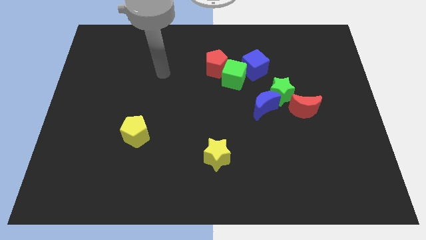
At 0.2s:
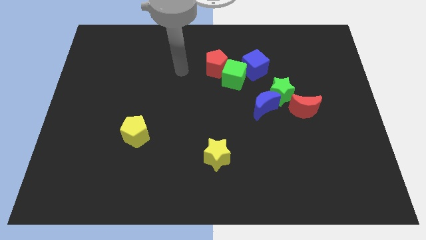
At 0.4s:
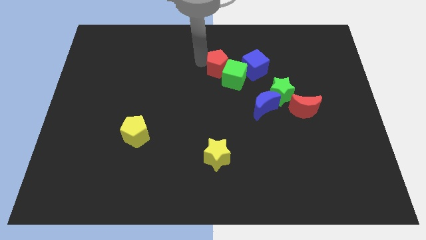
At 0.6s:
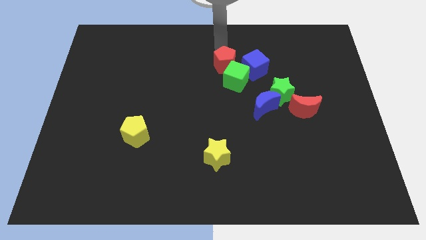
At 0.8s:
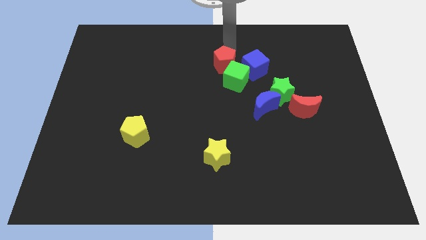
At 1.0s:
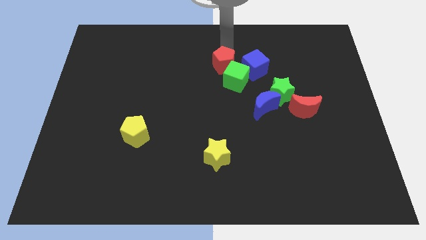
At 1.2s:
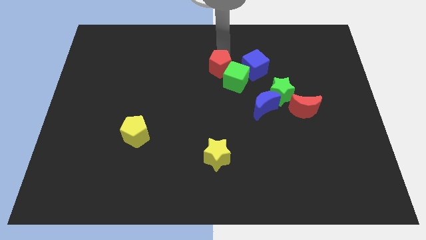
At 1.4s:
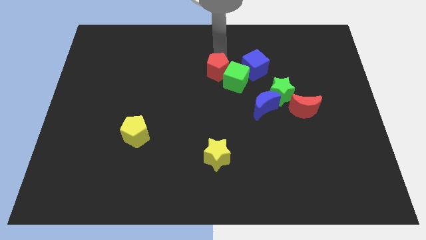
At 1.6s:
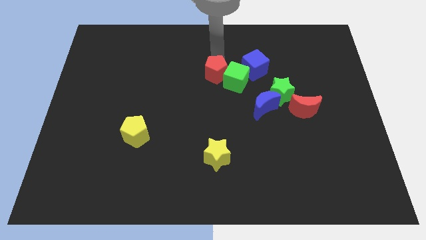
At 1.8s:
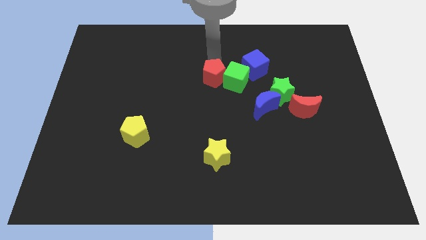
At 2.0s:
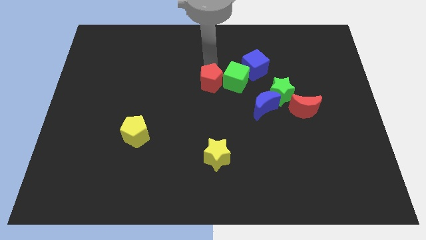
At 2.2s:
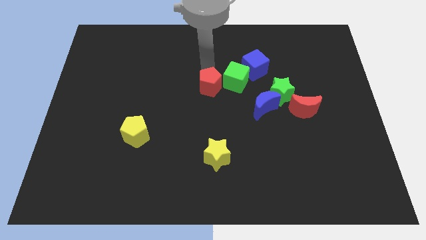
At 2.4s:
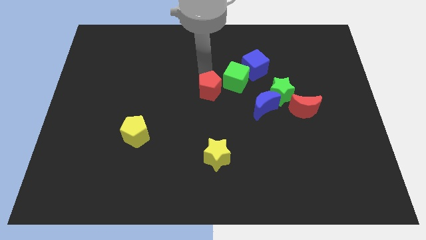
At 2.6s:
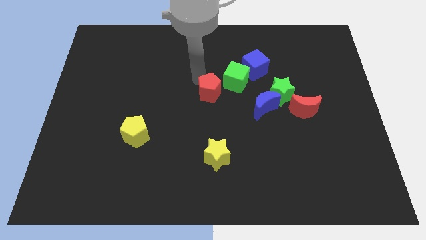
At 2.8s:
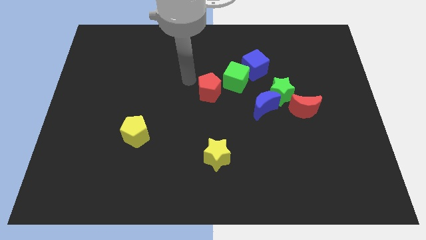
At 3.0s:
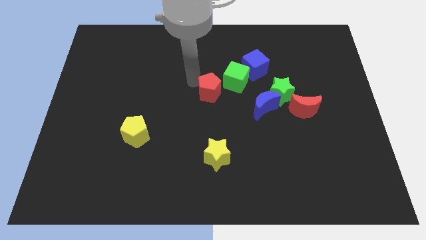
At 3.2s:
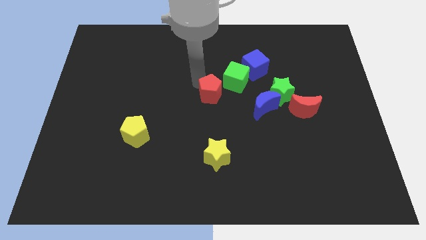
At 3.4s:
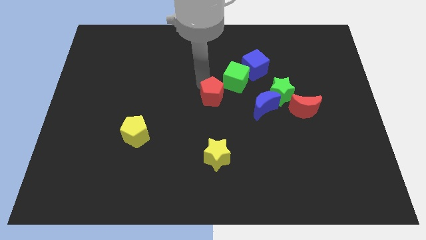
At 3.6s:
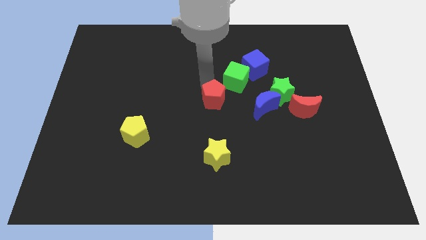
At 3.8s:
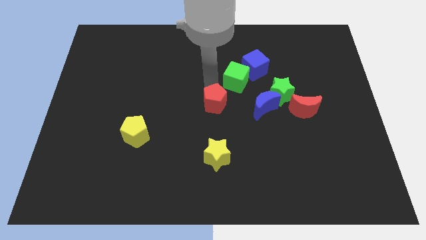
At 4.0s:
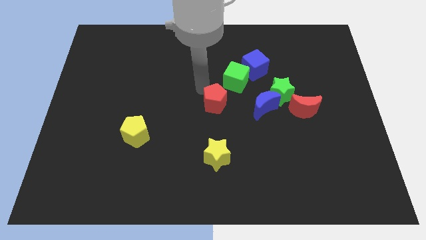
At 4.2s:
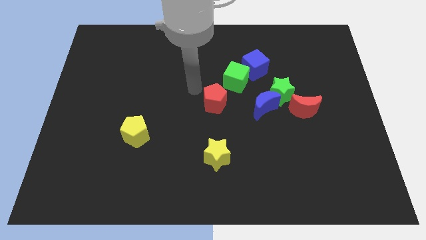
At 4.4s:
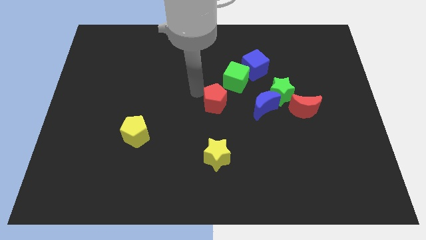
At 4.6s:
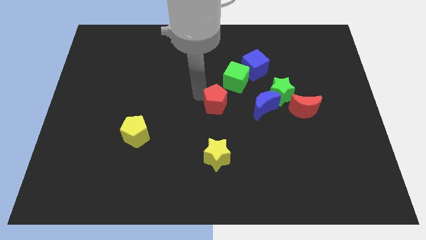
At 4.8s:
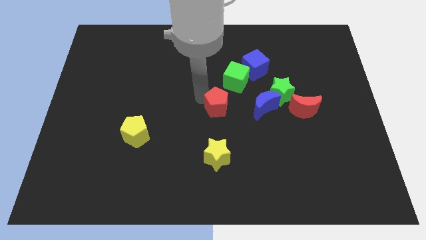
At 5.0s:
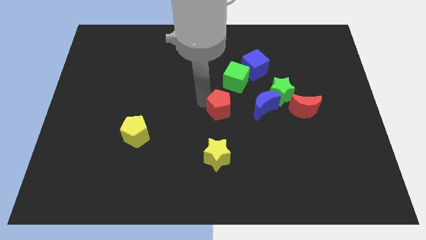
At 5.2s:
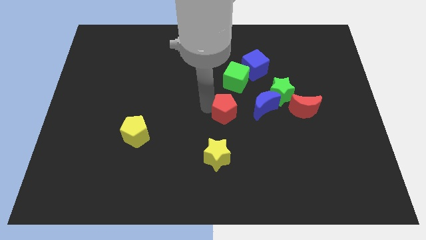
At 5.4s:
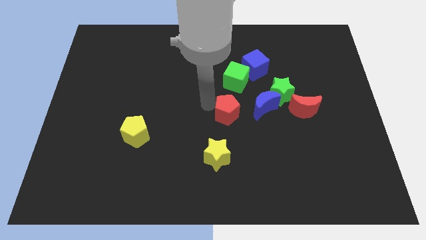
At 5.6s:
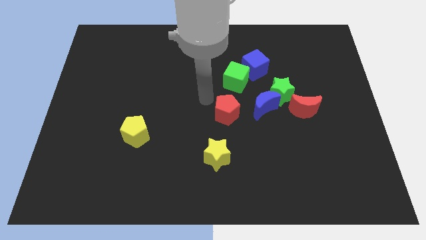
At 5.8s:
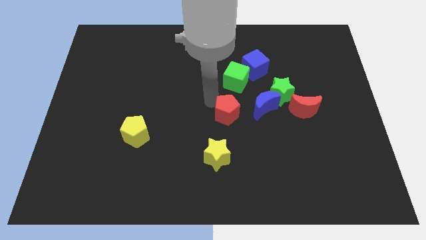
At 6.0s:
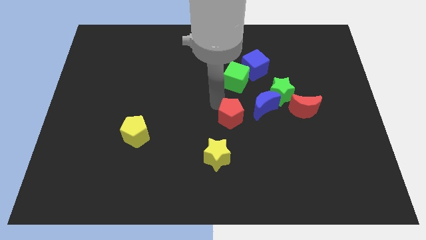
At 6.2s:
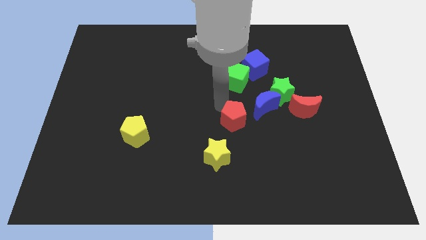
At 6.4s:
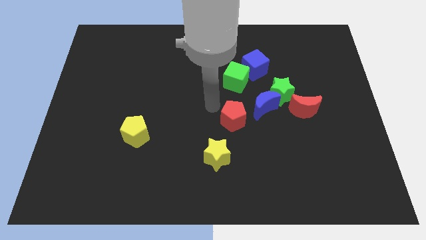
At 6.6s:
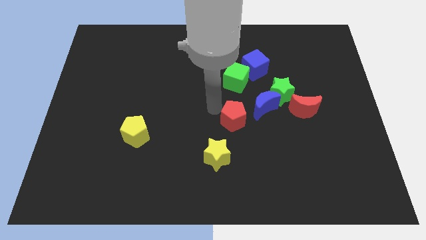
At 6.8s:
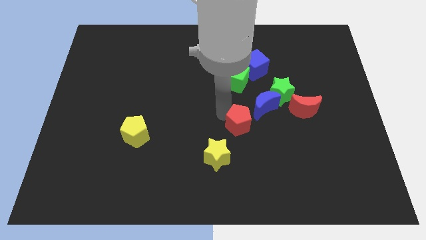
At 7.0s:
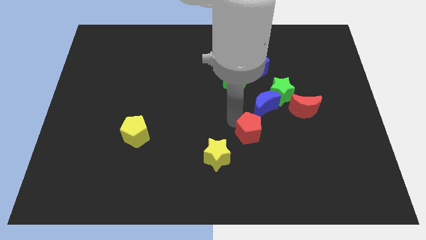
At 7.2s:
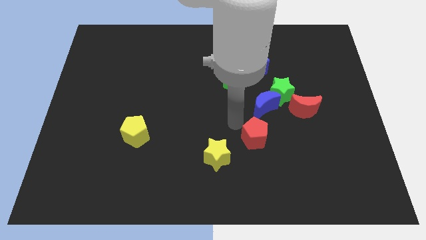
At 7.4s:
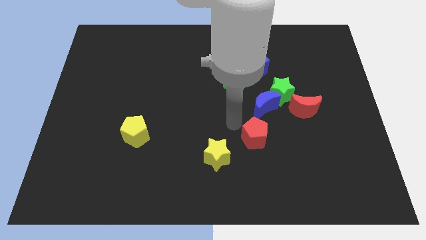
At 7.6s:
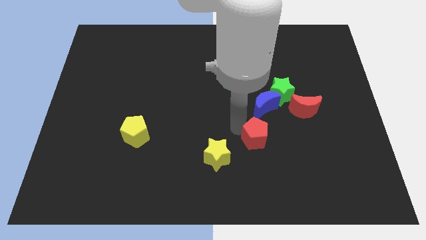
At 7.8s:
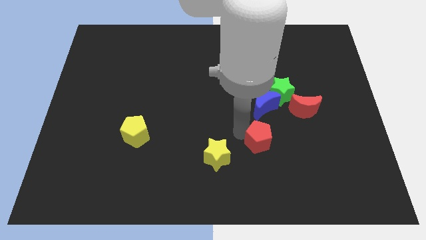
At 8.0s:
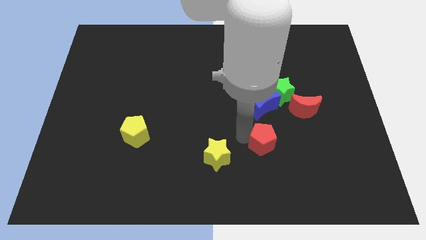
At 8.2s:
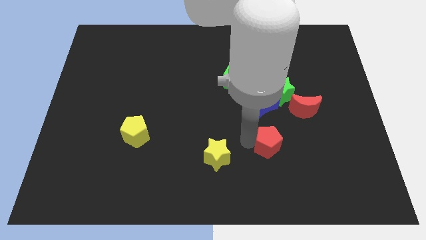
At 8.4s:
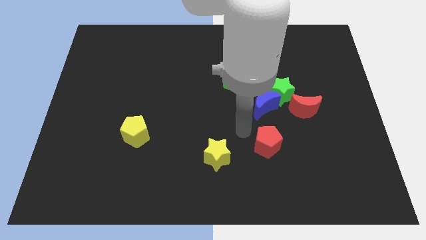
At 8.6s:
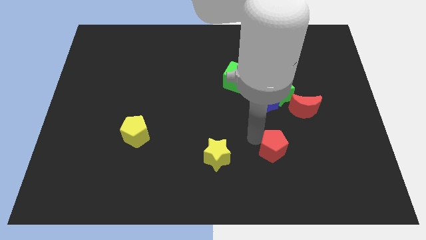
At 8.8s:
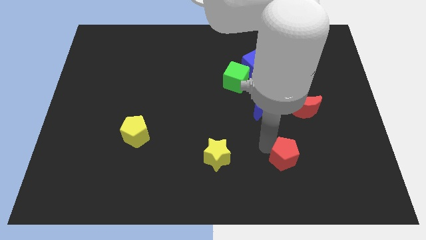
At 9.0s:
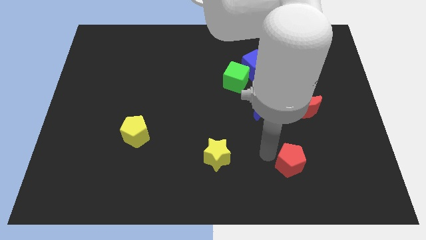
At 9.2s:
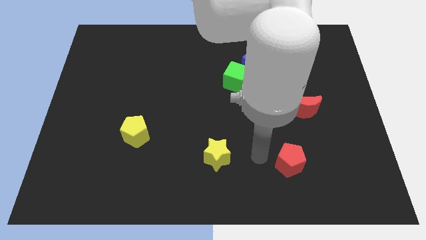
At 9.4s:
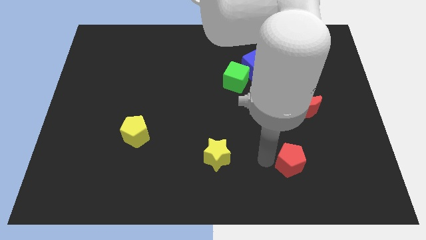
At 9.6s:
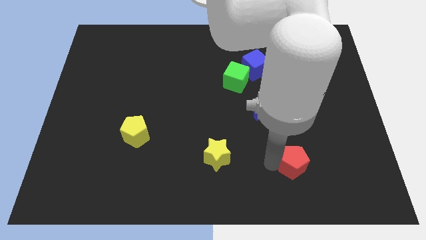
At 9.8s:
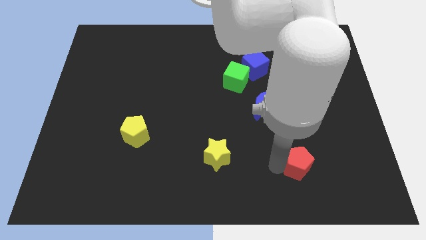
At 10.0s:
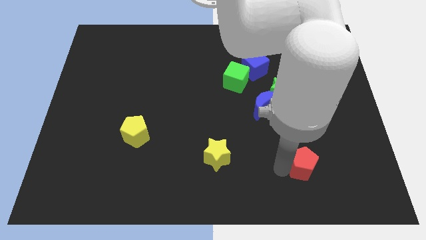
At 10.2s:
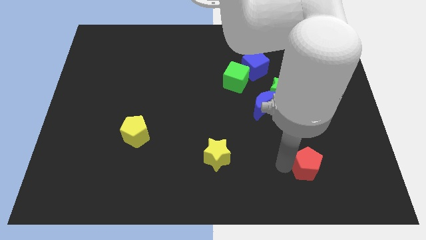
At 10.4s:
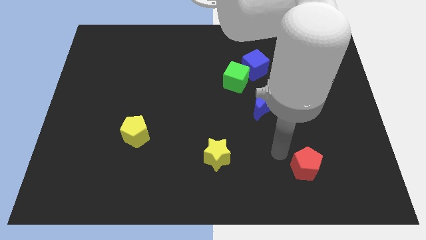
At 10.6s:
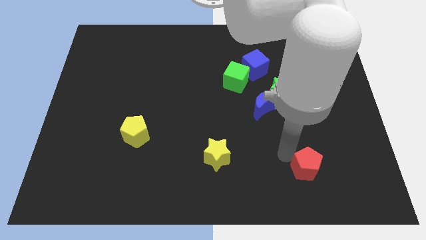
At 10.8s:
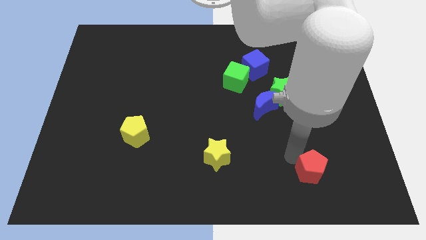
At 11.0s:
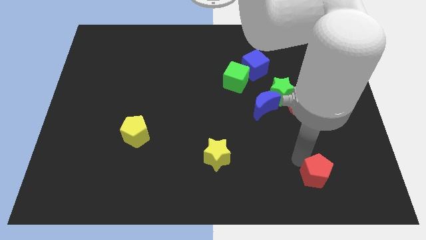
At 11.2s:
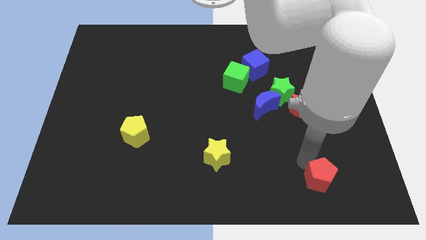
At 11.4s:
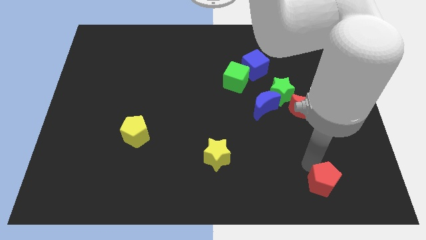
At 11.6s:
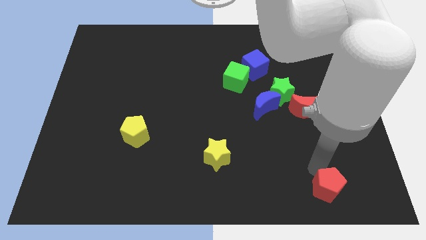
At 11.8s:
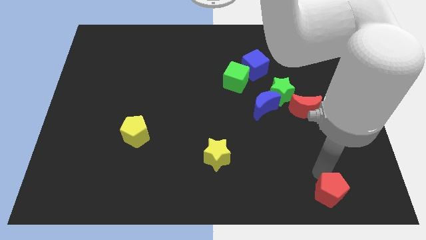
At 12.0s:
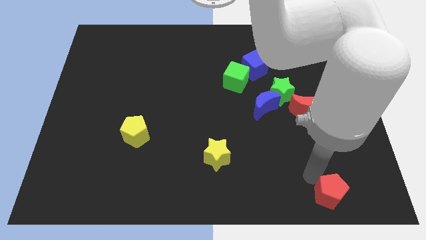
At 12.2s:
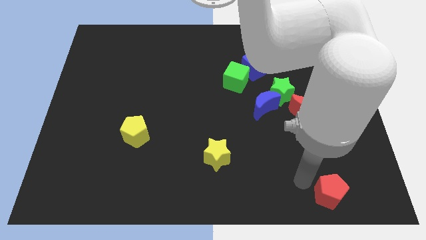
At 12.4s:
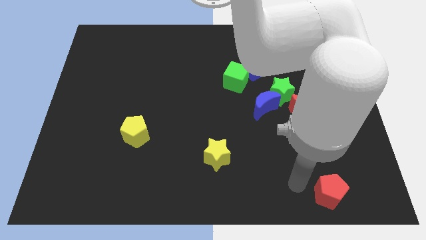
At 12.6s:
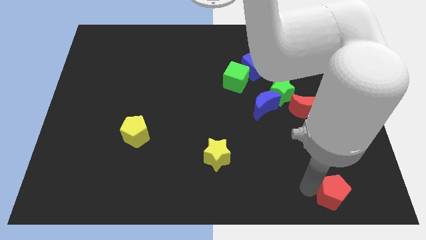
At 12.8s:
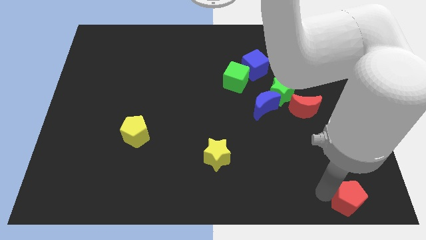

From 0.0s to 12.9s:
move the red pentagon to the bottom right
